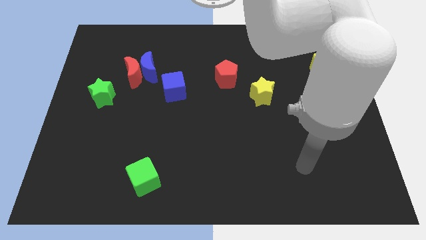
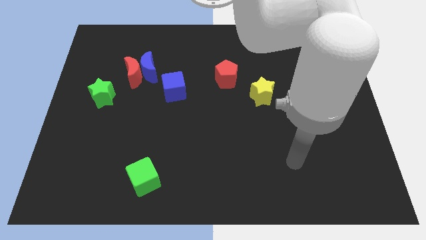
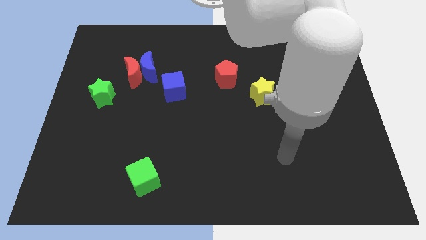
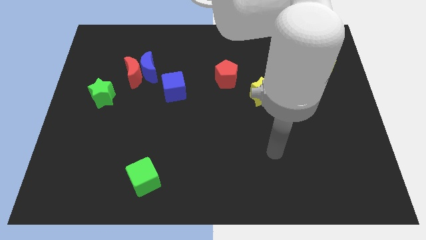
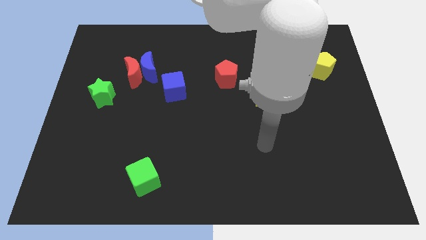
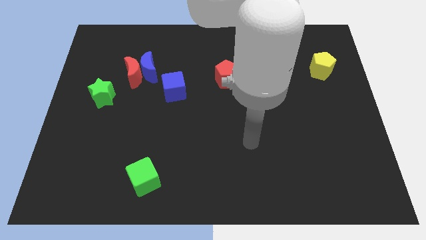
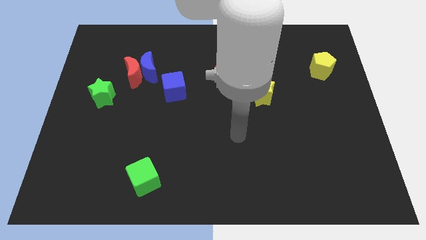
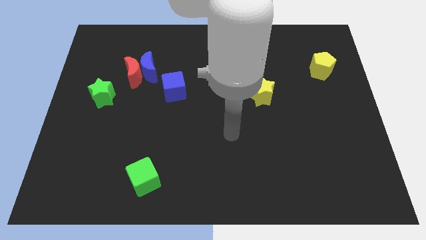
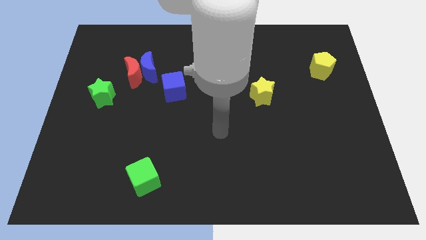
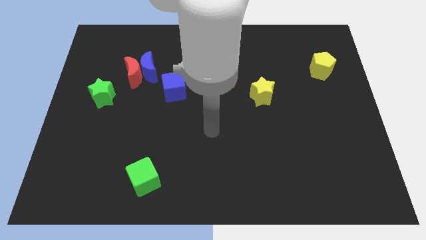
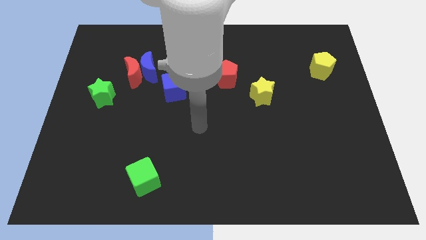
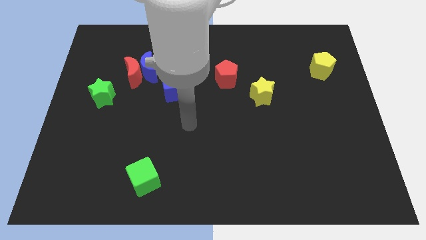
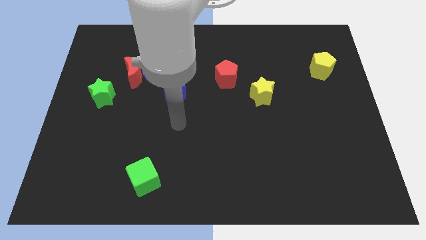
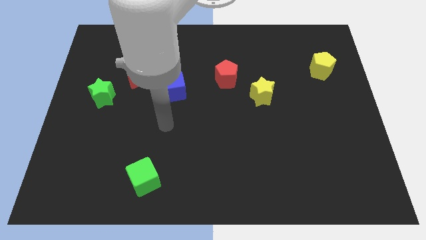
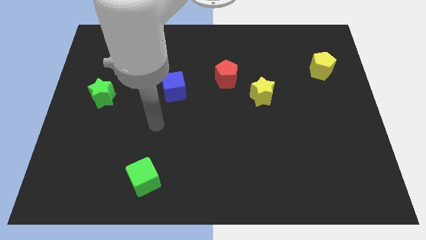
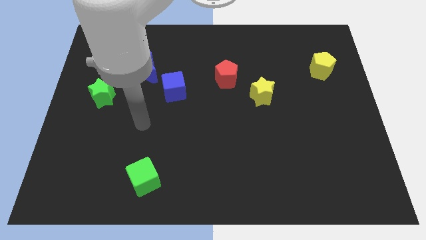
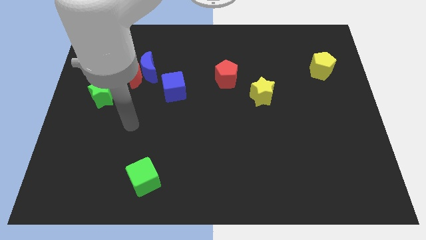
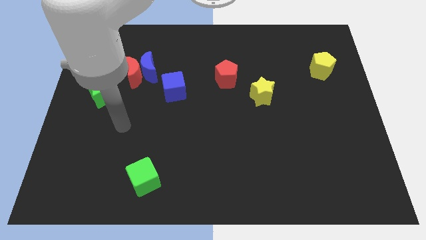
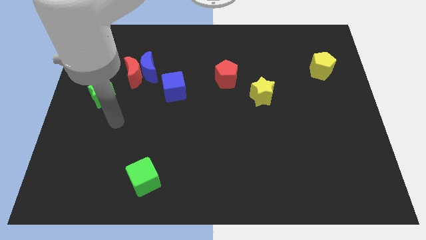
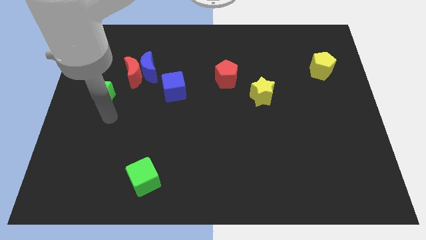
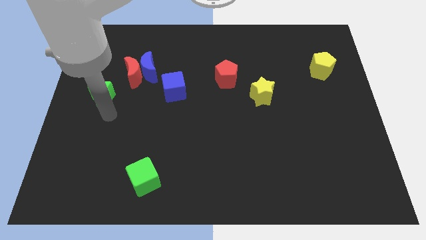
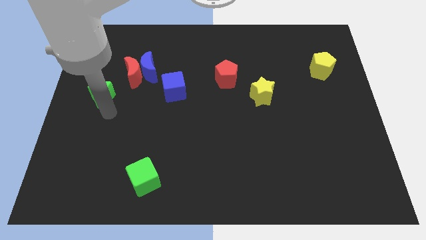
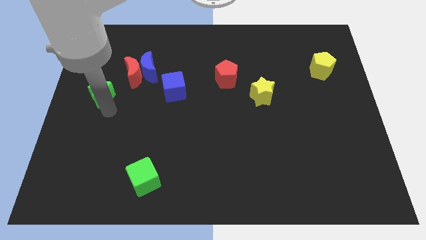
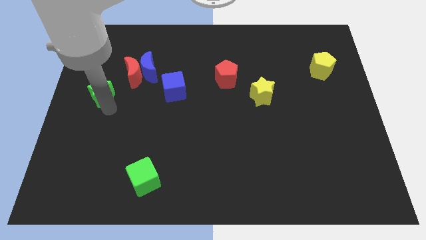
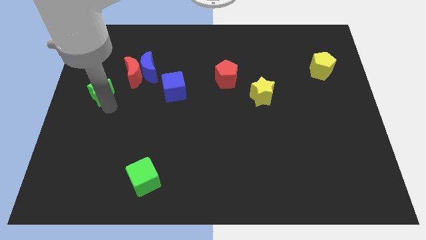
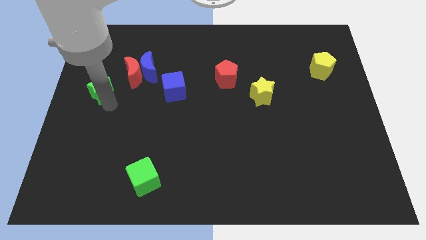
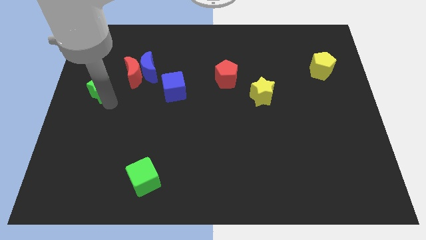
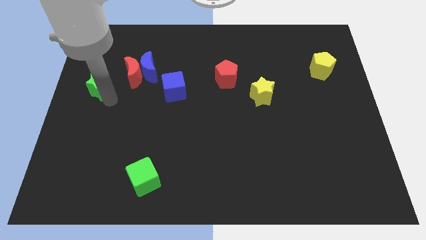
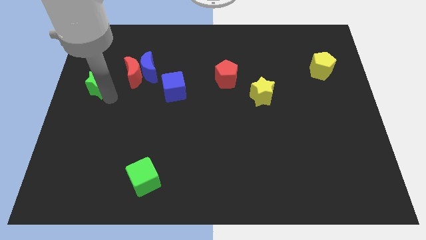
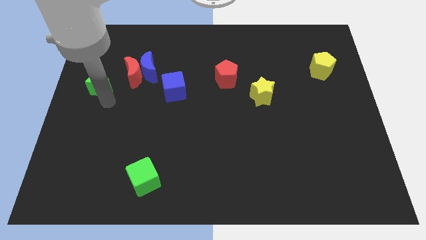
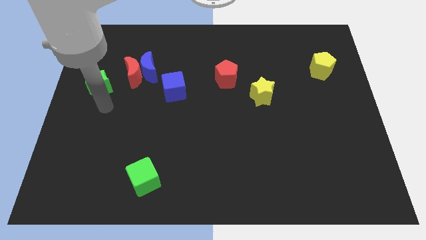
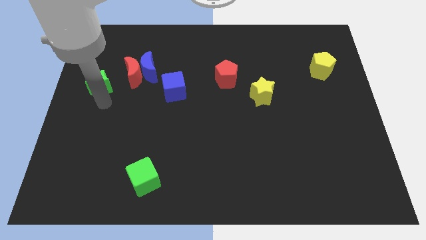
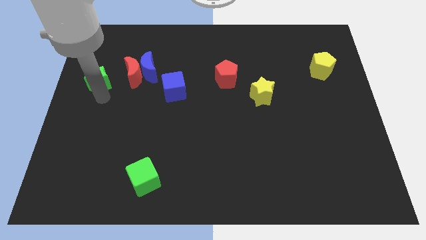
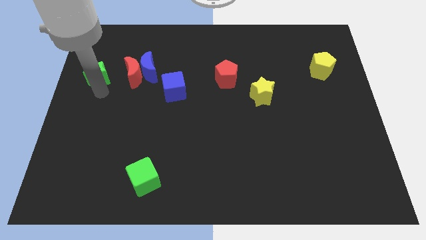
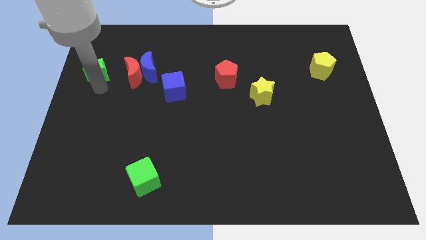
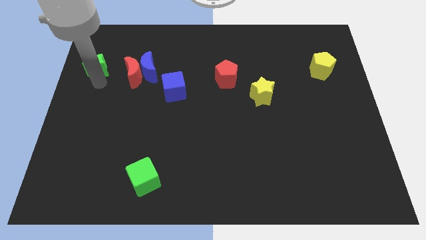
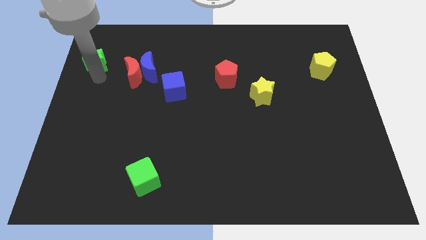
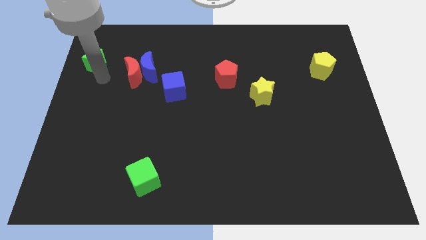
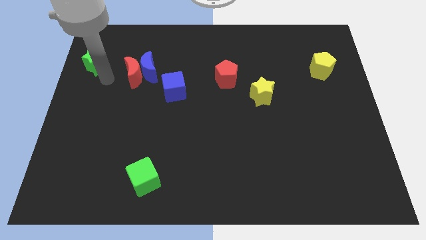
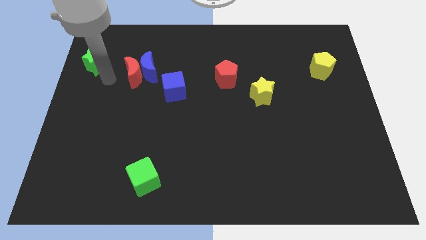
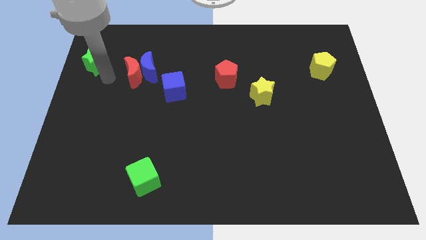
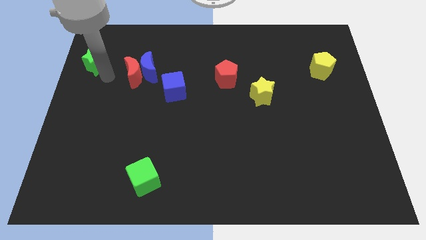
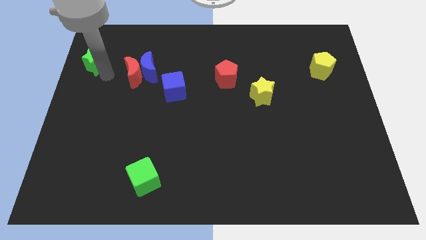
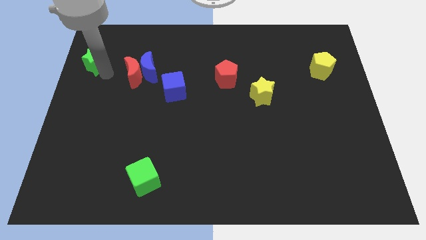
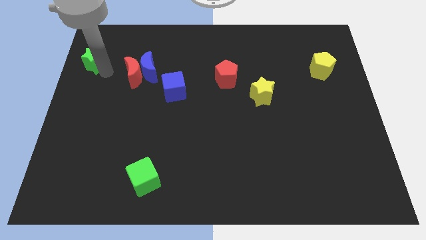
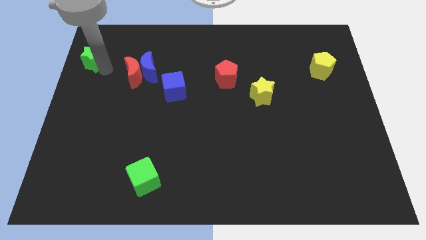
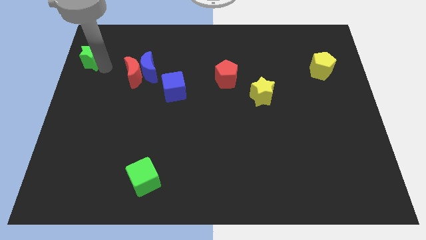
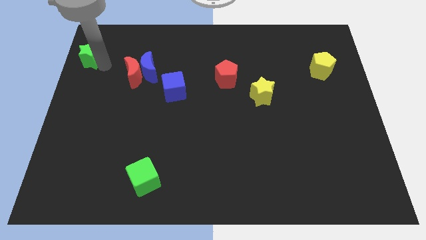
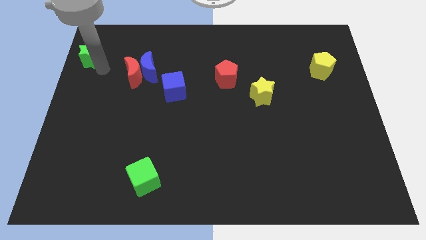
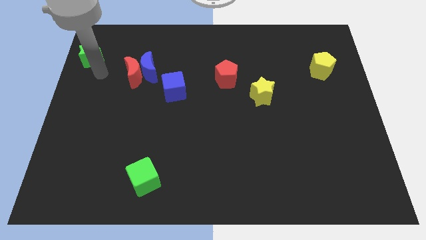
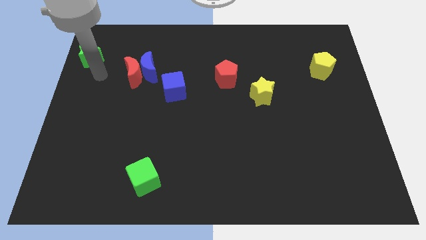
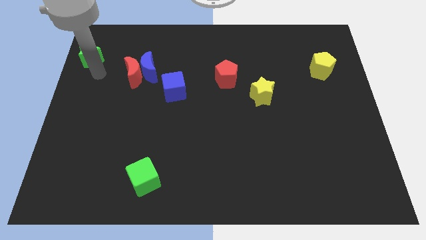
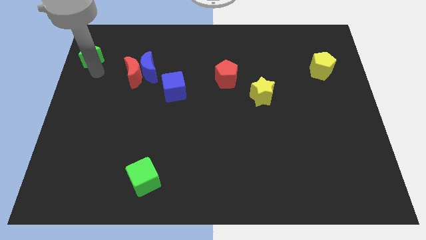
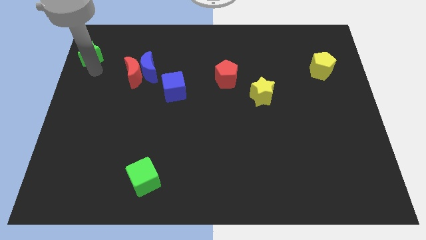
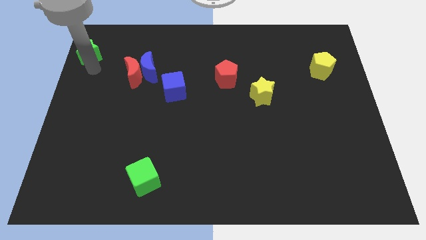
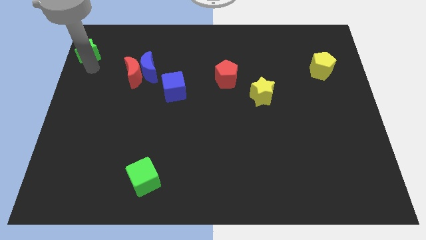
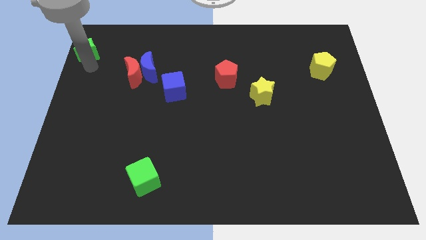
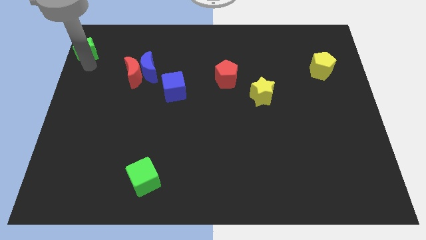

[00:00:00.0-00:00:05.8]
put the green star to the top left
